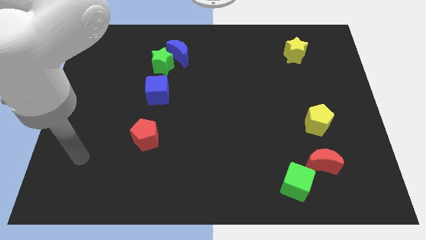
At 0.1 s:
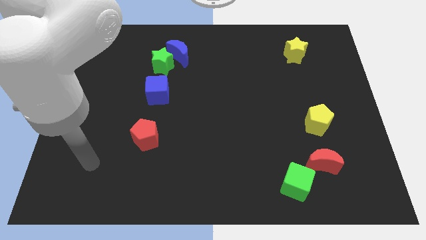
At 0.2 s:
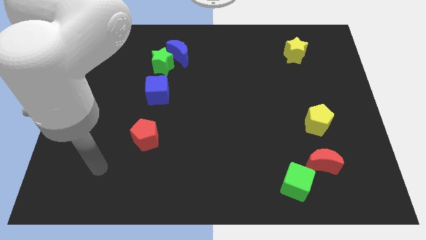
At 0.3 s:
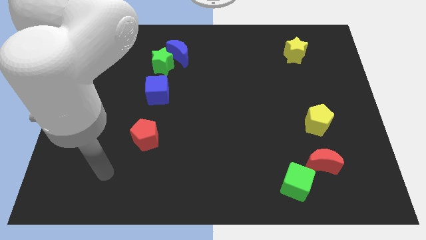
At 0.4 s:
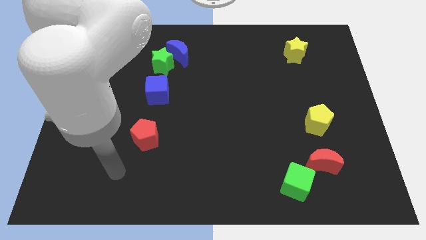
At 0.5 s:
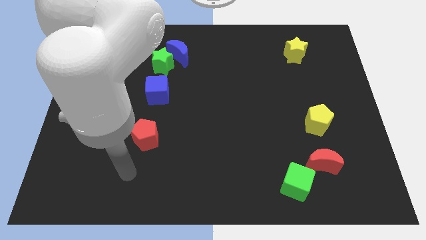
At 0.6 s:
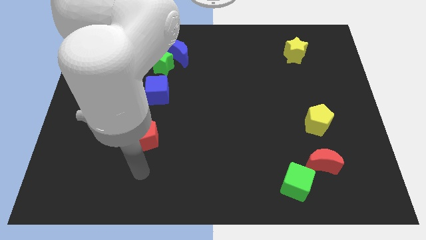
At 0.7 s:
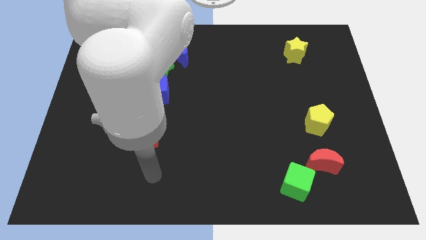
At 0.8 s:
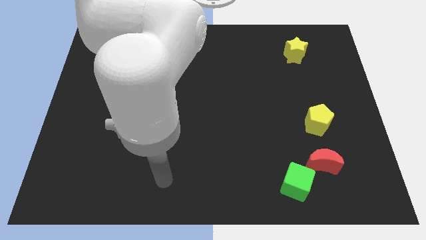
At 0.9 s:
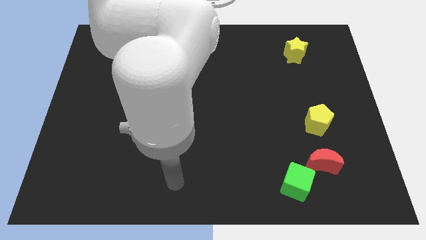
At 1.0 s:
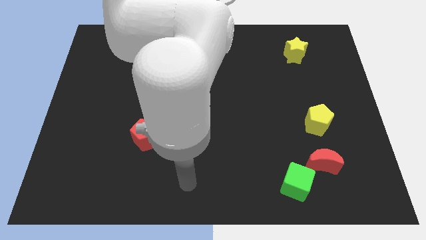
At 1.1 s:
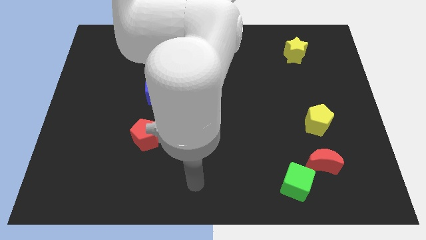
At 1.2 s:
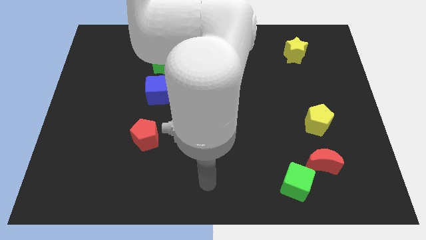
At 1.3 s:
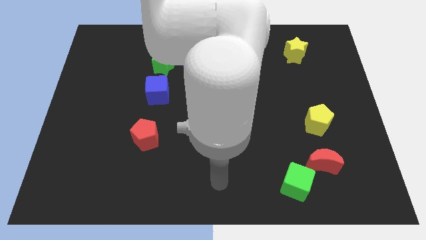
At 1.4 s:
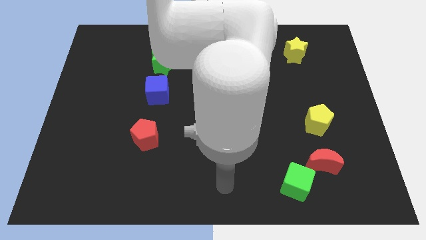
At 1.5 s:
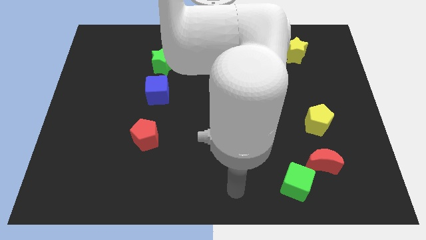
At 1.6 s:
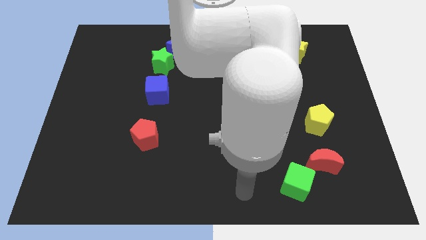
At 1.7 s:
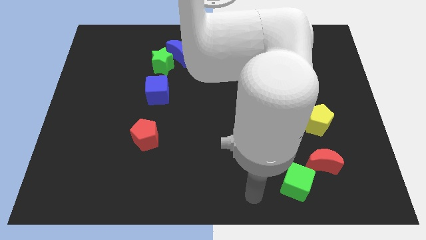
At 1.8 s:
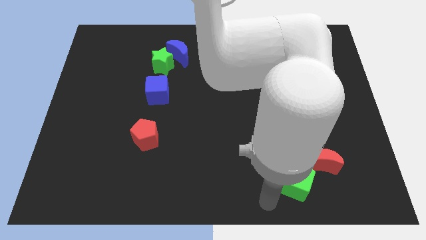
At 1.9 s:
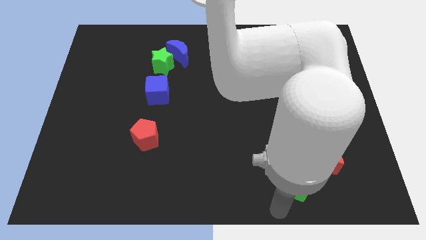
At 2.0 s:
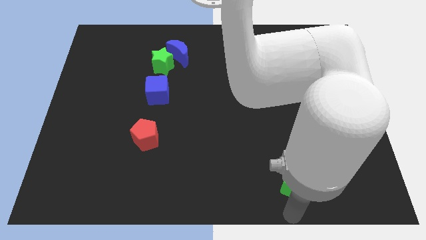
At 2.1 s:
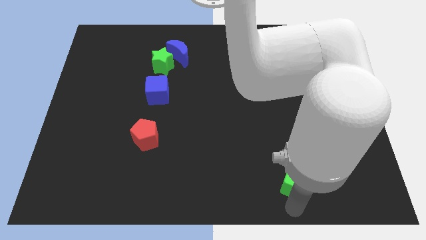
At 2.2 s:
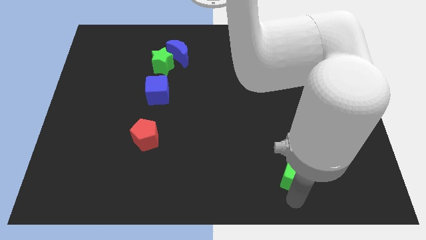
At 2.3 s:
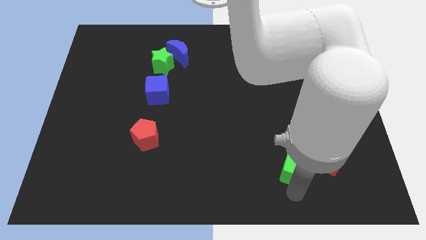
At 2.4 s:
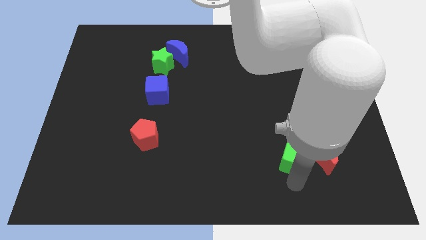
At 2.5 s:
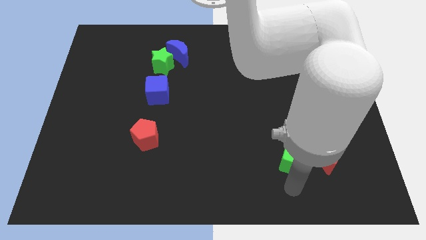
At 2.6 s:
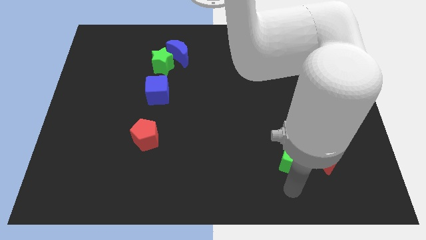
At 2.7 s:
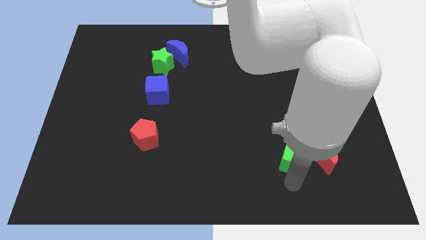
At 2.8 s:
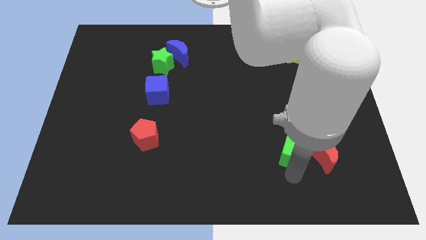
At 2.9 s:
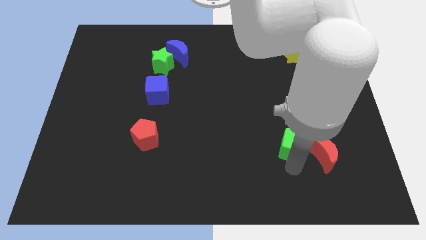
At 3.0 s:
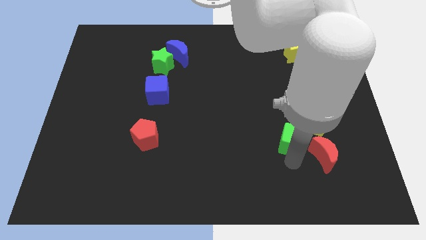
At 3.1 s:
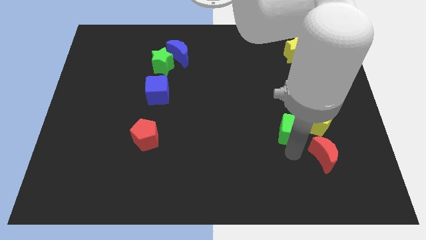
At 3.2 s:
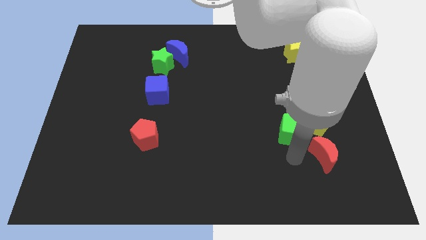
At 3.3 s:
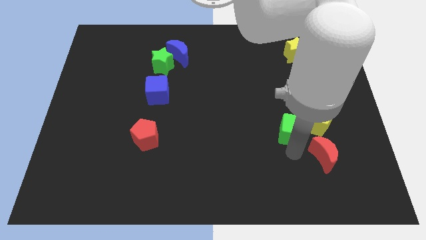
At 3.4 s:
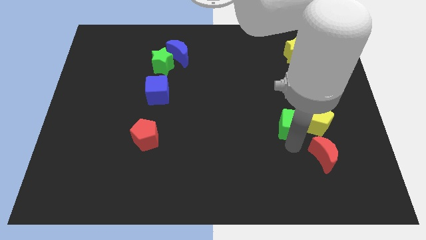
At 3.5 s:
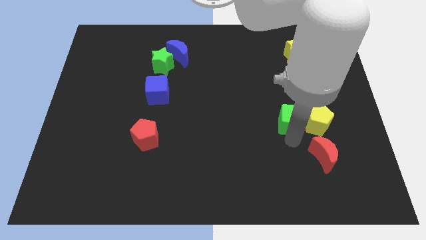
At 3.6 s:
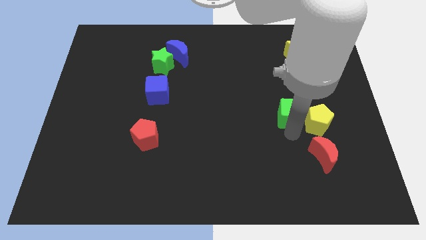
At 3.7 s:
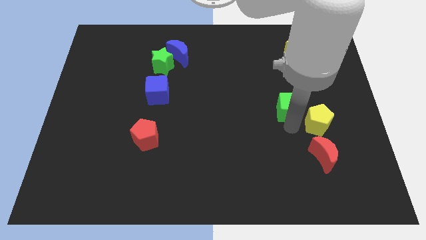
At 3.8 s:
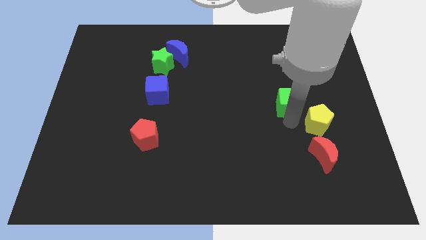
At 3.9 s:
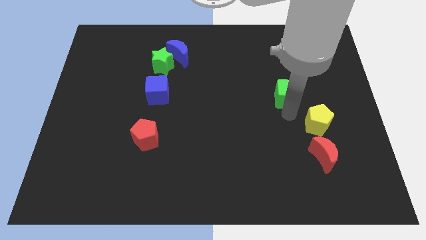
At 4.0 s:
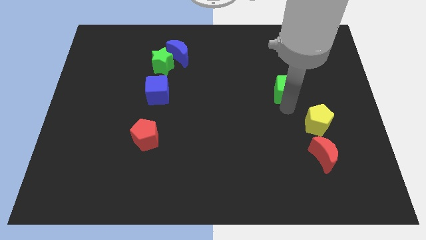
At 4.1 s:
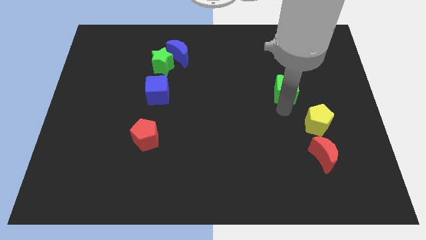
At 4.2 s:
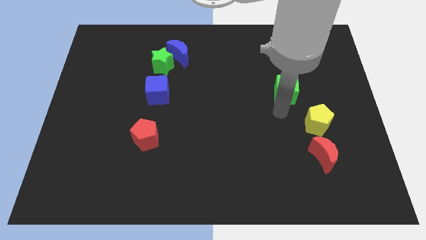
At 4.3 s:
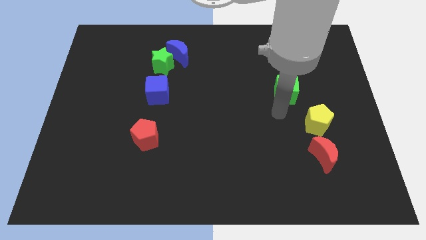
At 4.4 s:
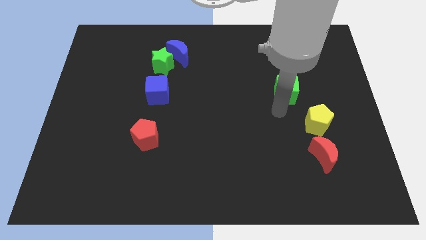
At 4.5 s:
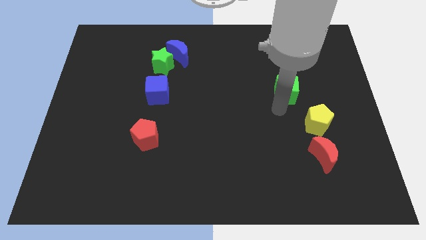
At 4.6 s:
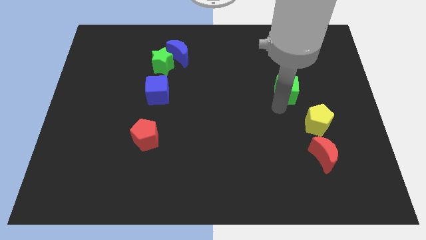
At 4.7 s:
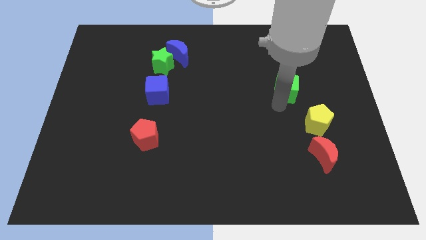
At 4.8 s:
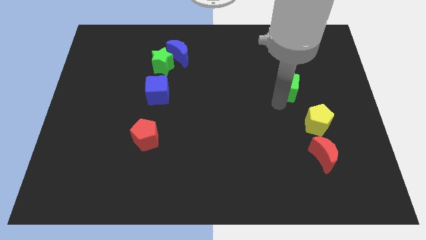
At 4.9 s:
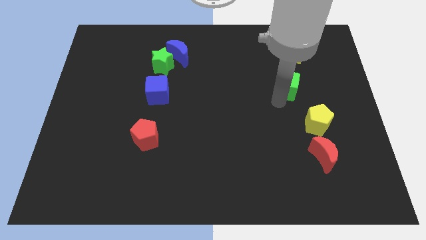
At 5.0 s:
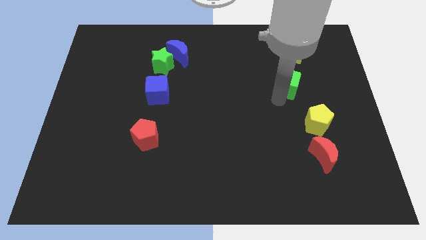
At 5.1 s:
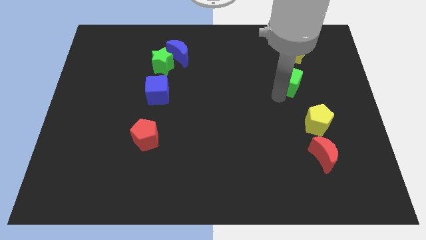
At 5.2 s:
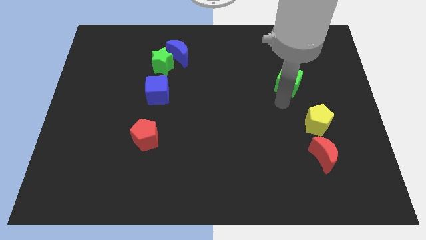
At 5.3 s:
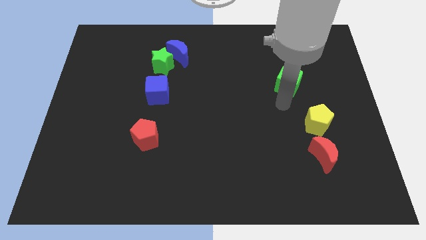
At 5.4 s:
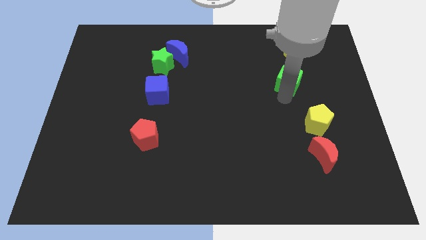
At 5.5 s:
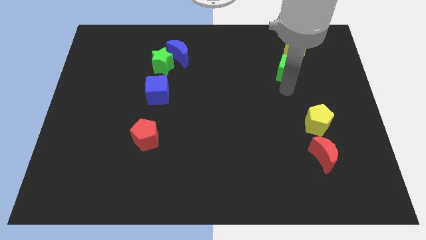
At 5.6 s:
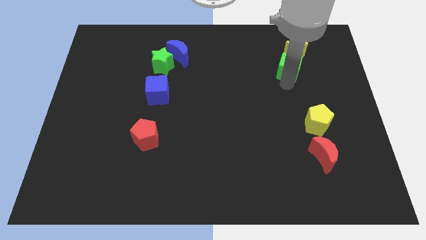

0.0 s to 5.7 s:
push the green cube towards the yellow star

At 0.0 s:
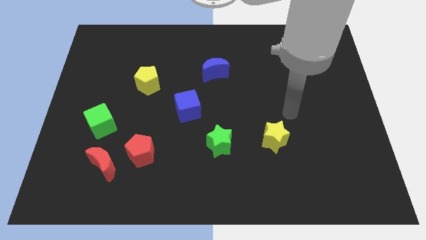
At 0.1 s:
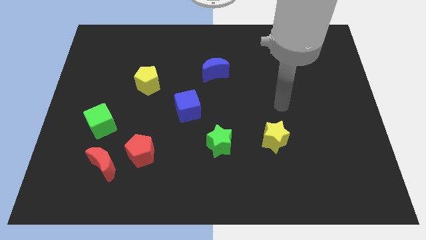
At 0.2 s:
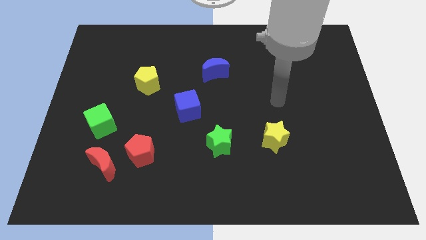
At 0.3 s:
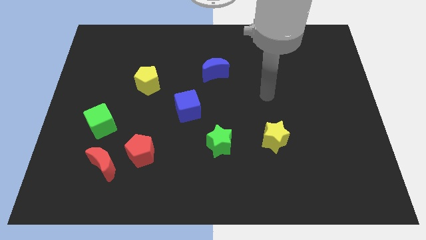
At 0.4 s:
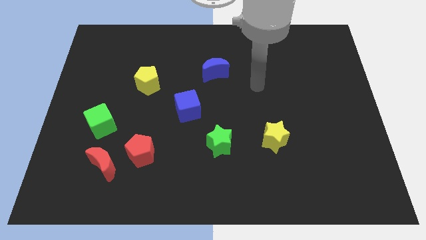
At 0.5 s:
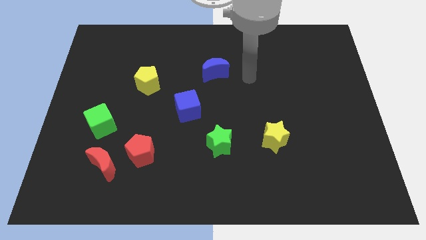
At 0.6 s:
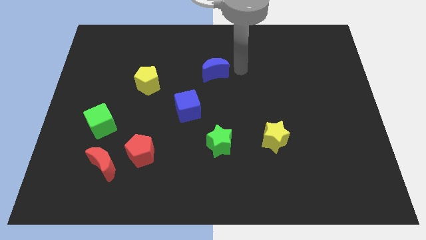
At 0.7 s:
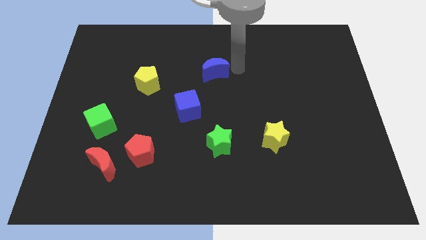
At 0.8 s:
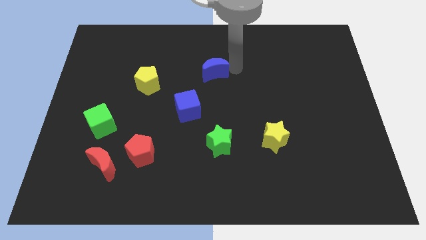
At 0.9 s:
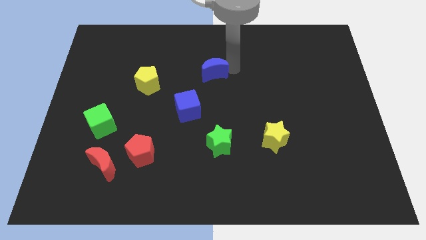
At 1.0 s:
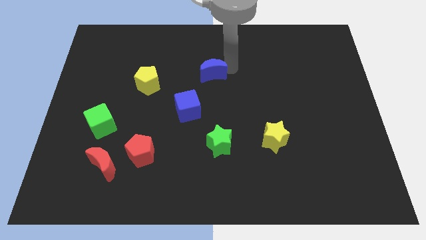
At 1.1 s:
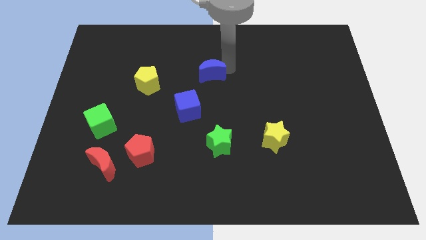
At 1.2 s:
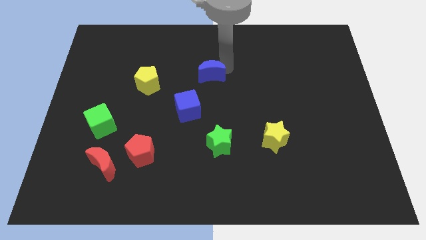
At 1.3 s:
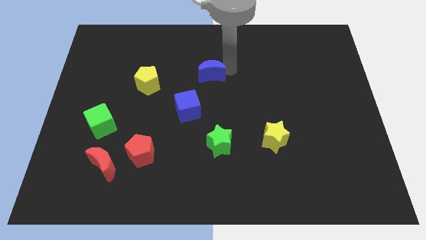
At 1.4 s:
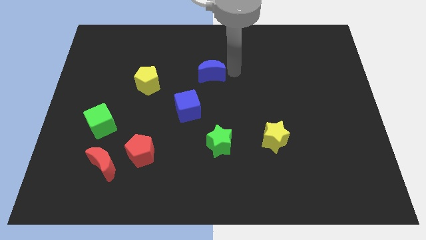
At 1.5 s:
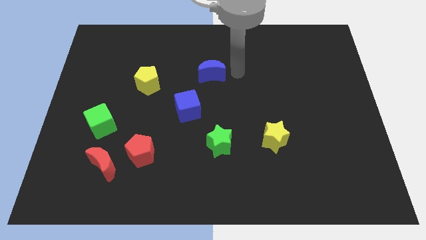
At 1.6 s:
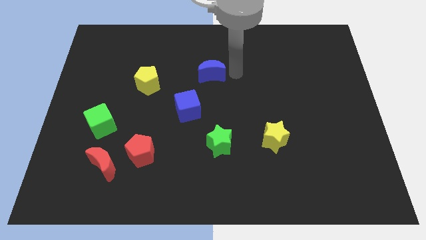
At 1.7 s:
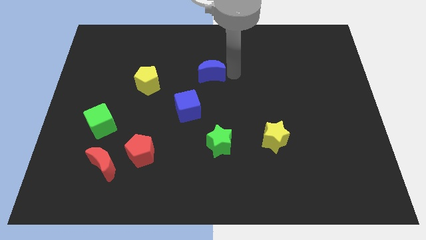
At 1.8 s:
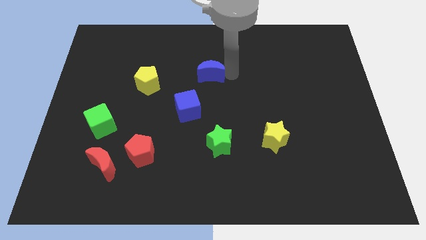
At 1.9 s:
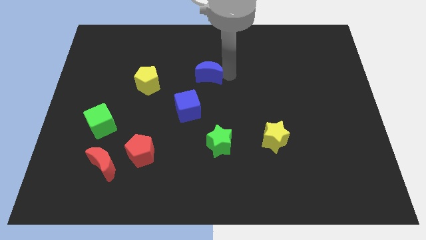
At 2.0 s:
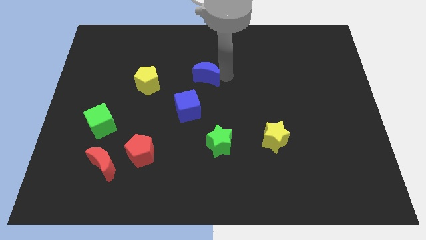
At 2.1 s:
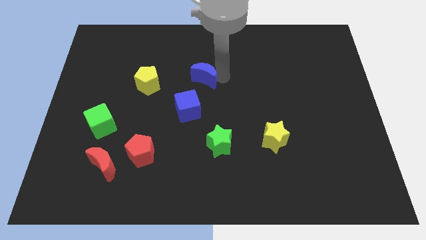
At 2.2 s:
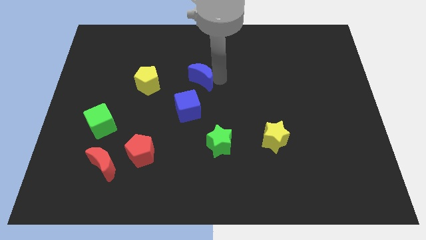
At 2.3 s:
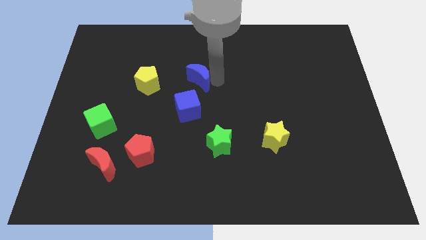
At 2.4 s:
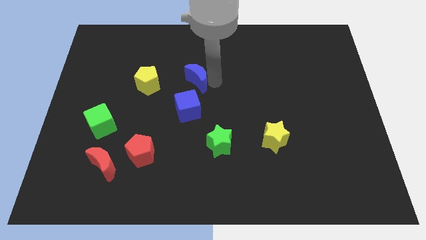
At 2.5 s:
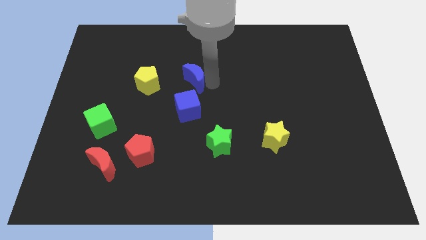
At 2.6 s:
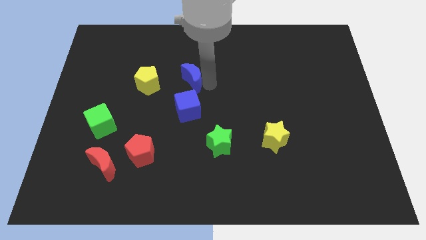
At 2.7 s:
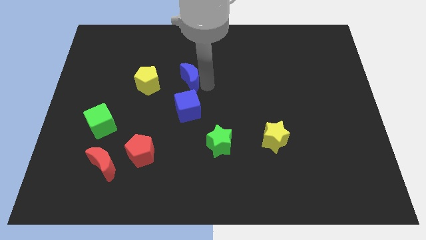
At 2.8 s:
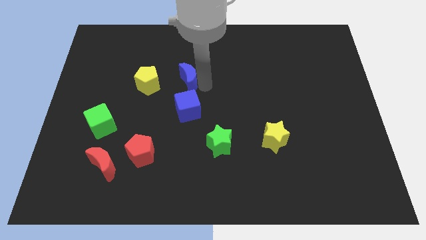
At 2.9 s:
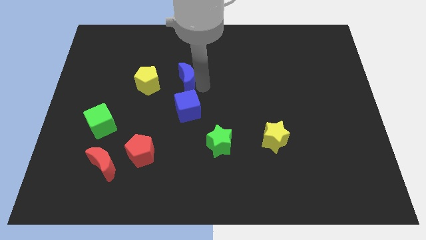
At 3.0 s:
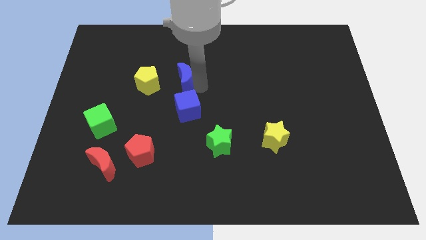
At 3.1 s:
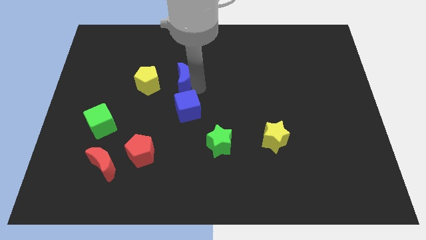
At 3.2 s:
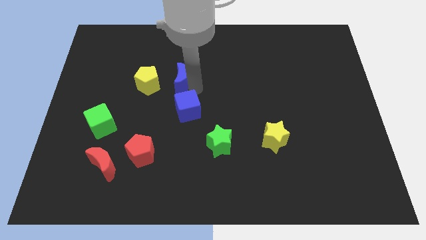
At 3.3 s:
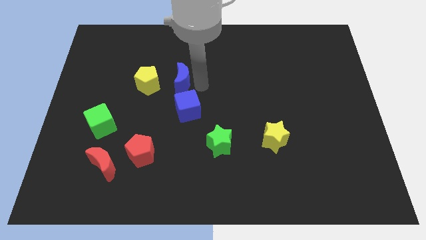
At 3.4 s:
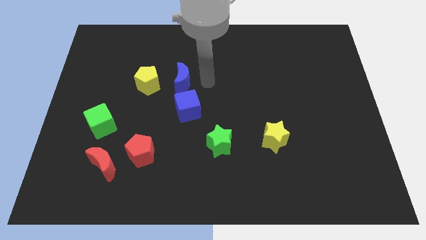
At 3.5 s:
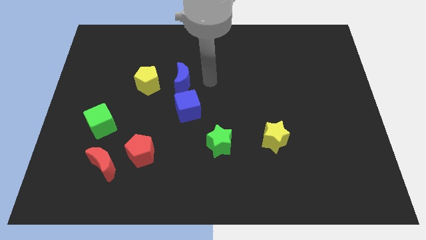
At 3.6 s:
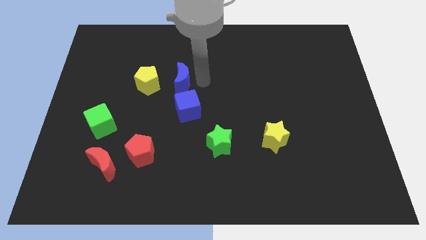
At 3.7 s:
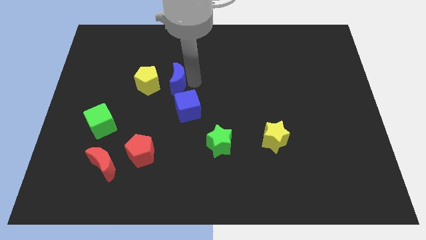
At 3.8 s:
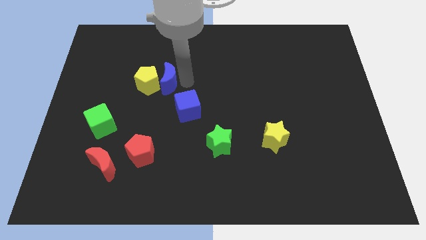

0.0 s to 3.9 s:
slide the blue moon to the yellow pentagon
